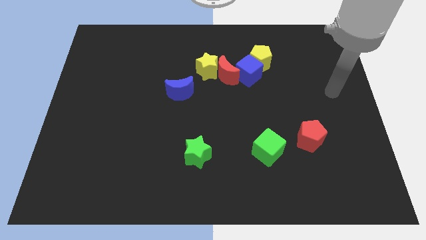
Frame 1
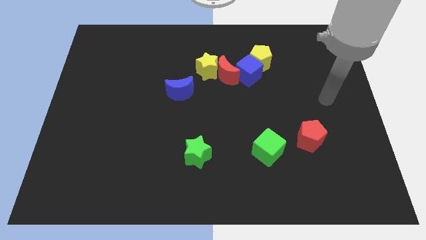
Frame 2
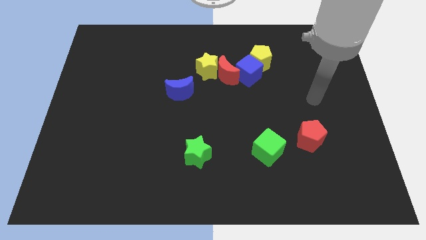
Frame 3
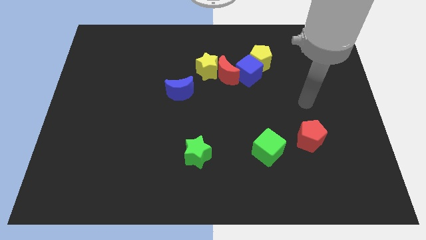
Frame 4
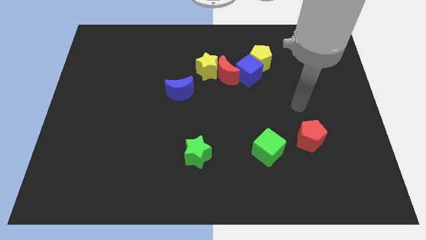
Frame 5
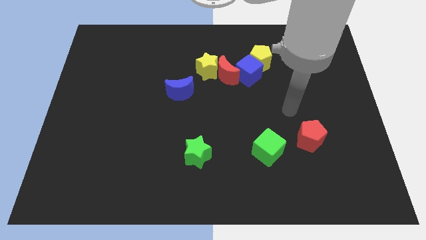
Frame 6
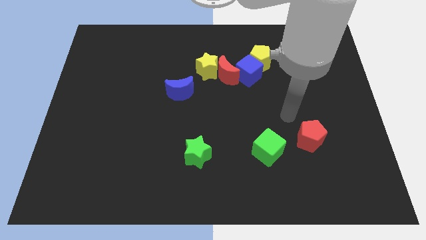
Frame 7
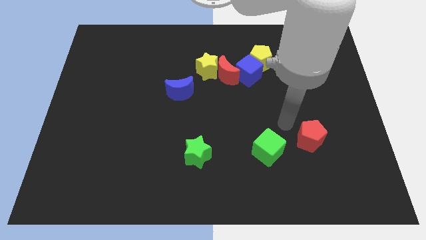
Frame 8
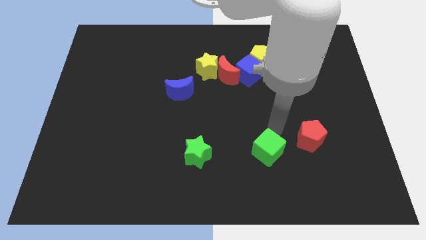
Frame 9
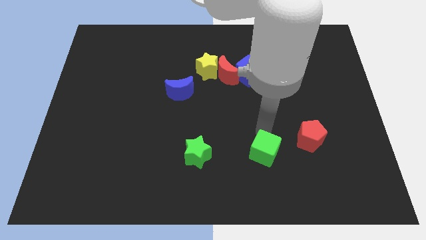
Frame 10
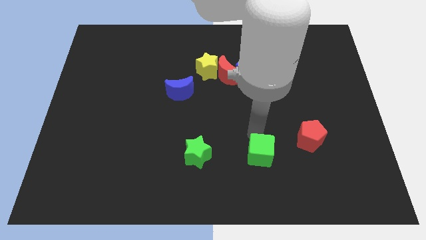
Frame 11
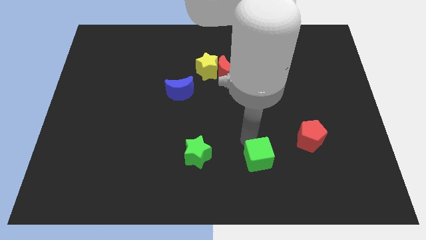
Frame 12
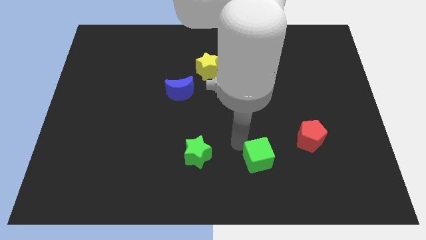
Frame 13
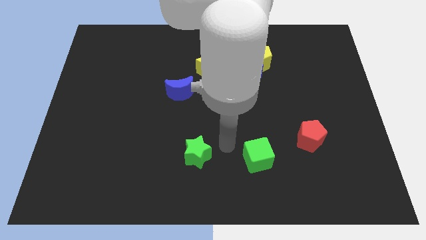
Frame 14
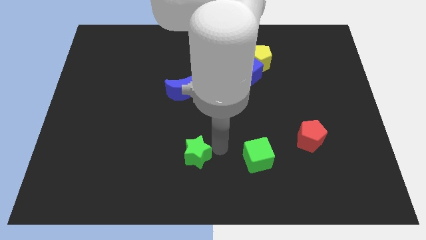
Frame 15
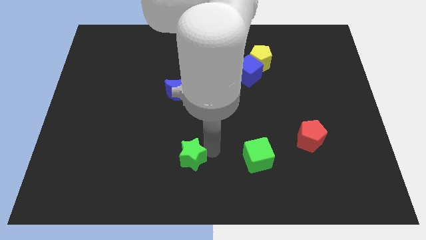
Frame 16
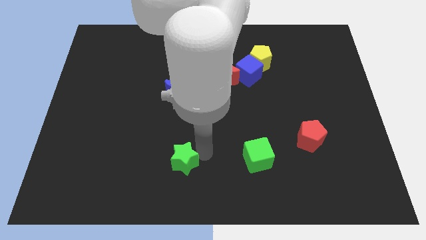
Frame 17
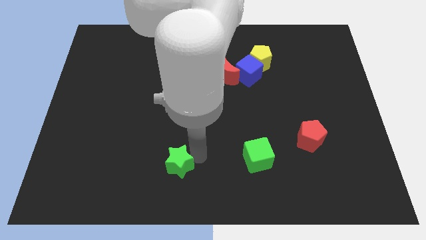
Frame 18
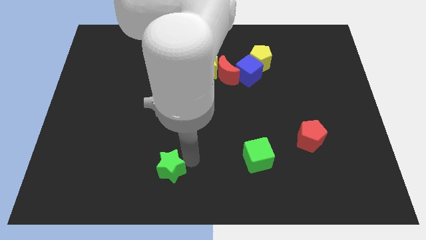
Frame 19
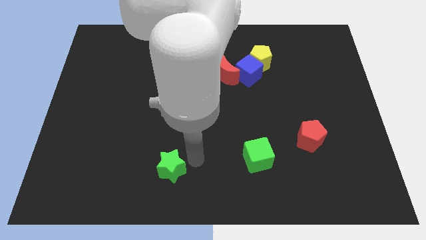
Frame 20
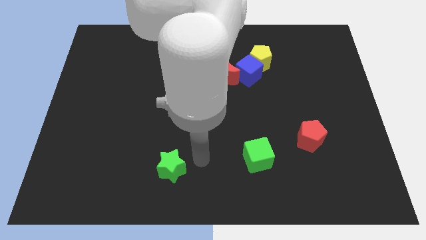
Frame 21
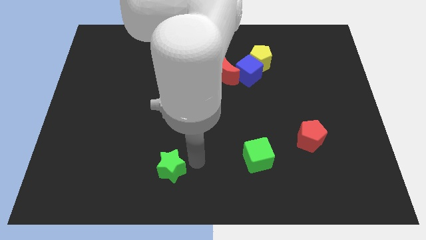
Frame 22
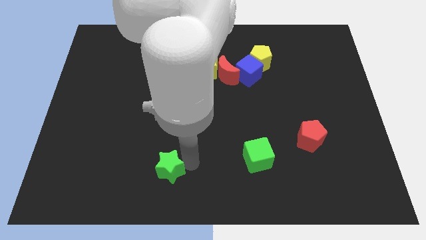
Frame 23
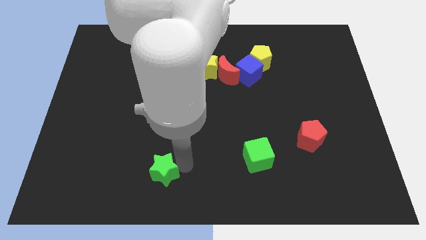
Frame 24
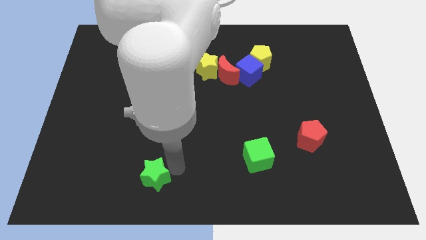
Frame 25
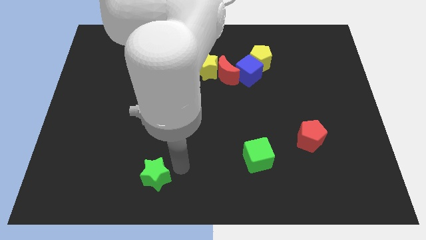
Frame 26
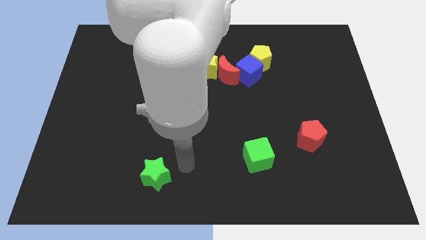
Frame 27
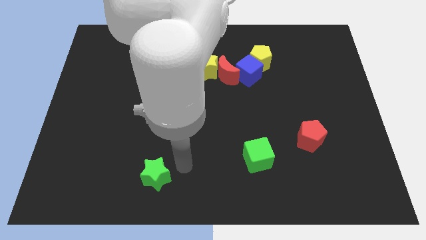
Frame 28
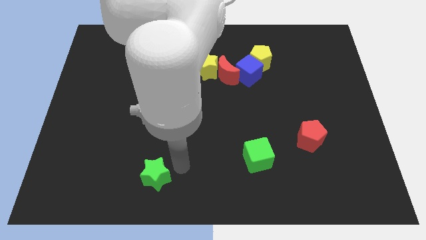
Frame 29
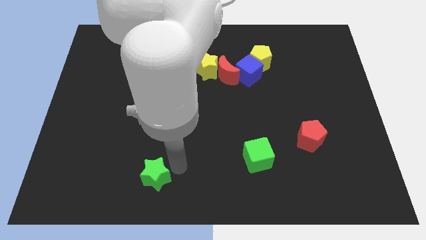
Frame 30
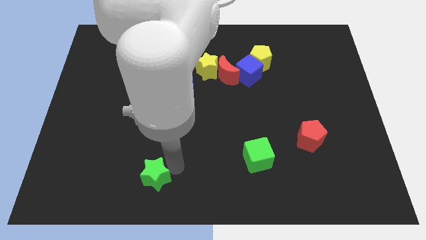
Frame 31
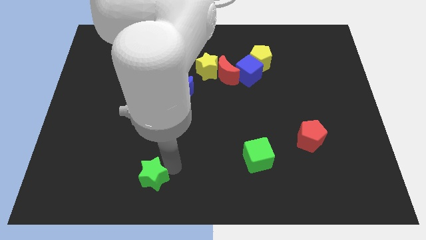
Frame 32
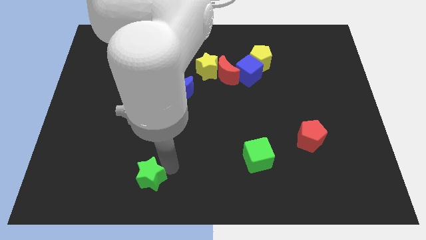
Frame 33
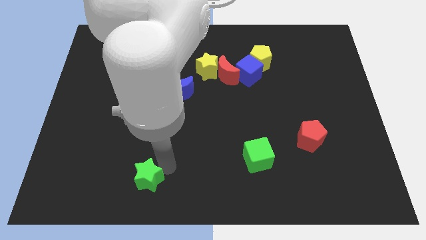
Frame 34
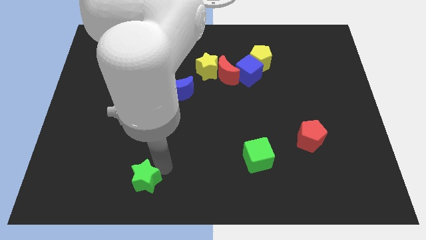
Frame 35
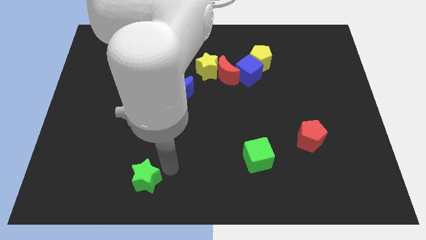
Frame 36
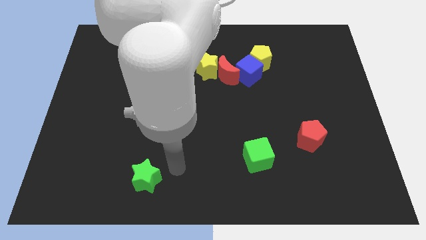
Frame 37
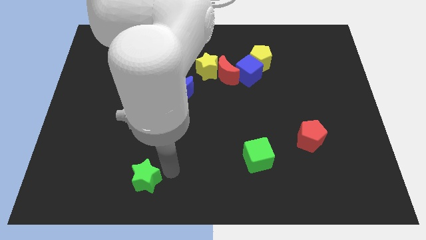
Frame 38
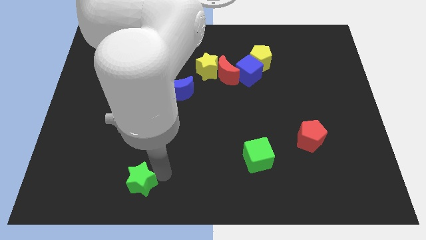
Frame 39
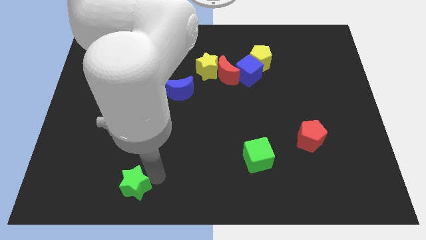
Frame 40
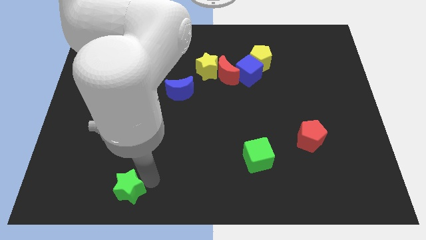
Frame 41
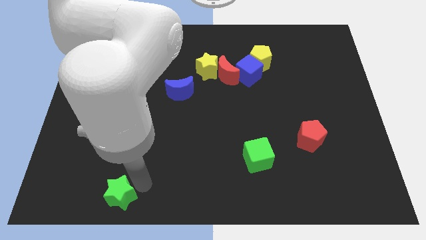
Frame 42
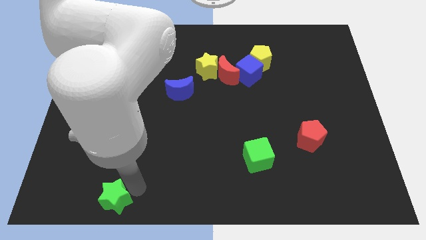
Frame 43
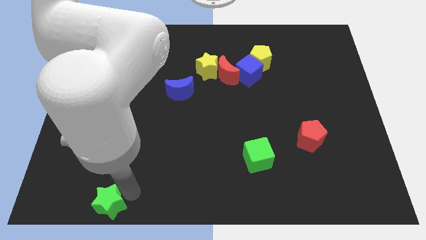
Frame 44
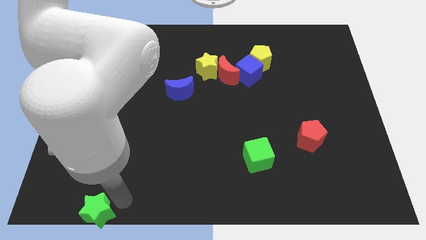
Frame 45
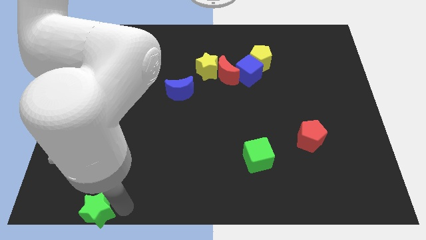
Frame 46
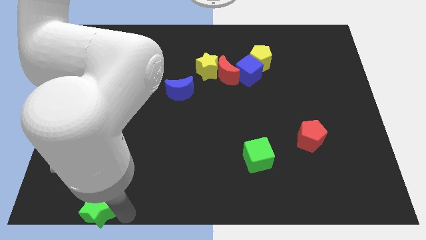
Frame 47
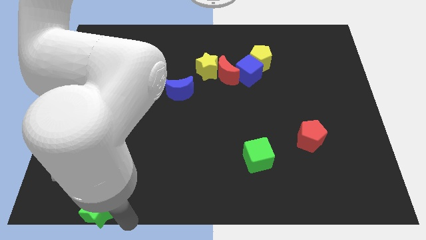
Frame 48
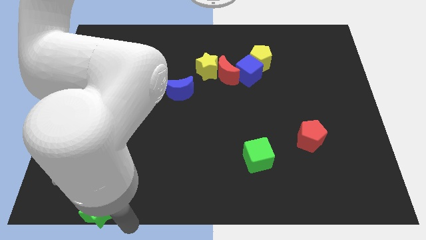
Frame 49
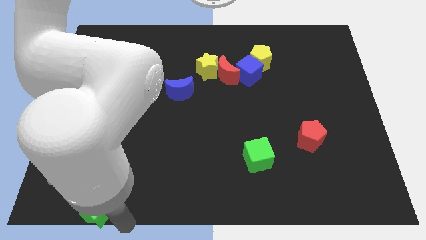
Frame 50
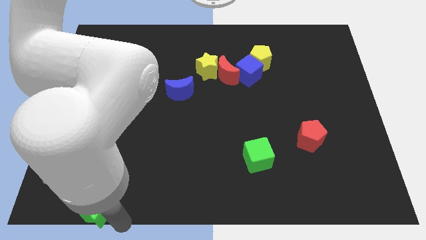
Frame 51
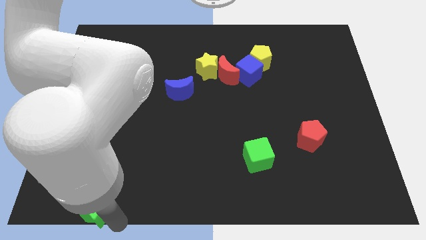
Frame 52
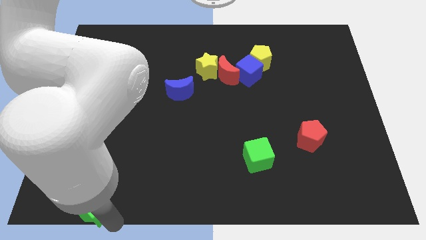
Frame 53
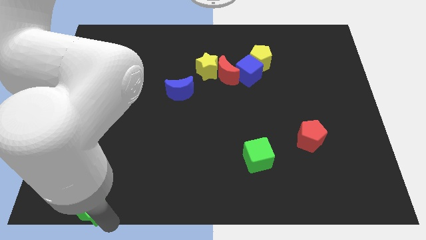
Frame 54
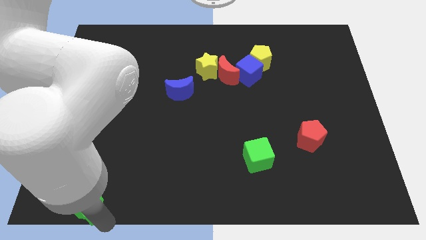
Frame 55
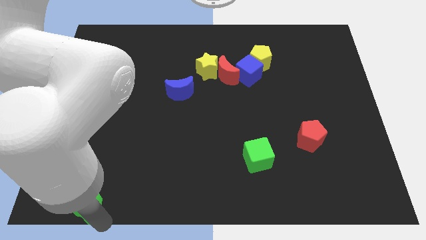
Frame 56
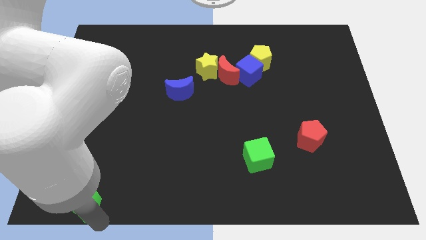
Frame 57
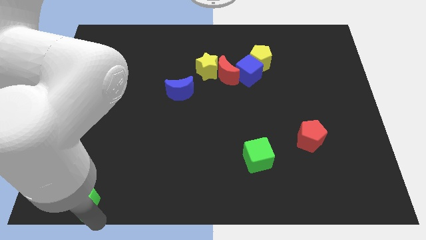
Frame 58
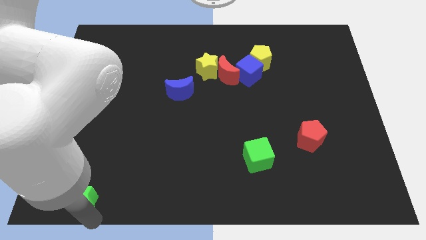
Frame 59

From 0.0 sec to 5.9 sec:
slide the green star to the bottom left of the board
